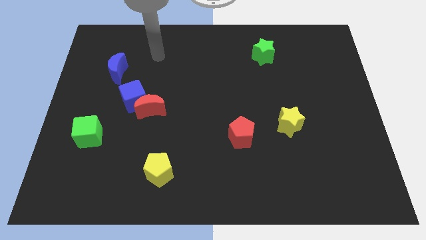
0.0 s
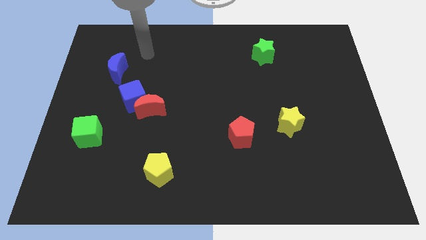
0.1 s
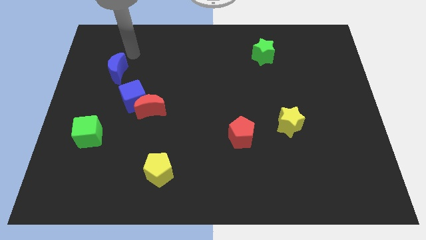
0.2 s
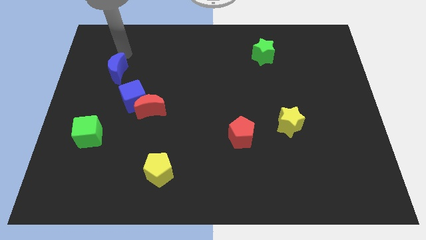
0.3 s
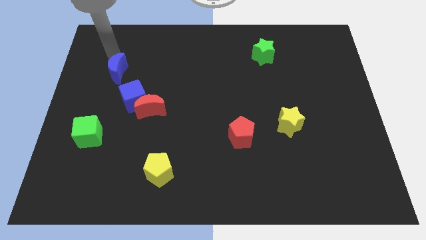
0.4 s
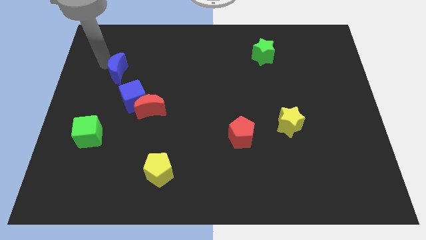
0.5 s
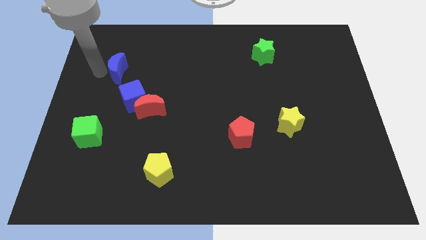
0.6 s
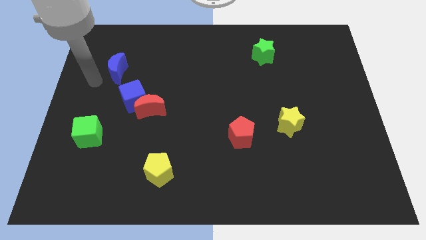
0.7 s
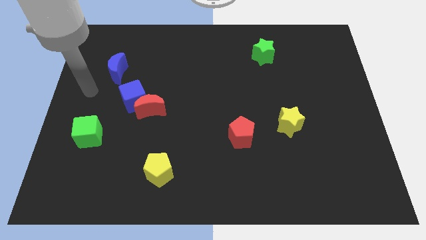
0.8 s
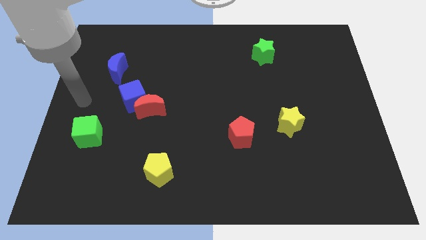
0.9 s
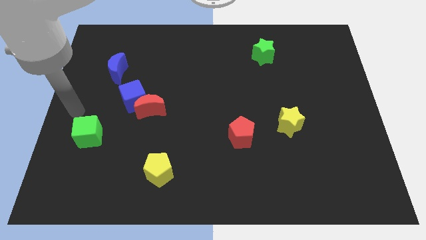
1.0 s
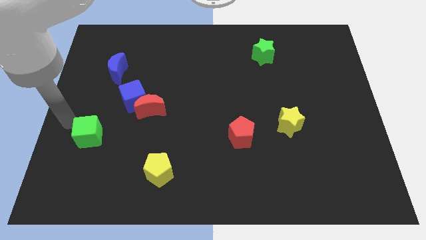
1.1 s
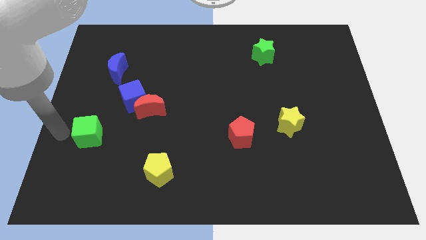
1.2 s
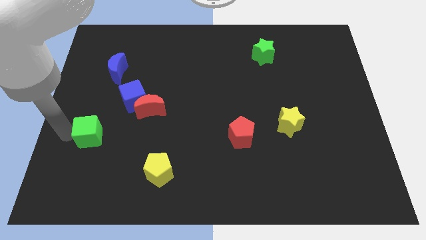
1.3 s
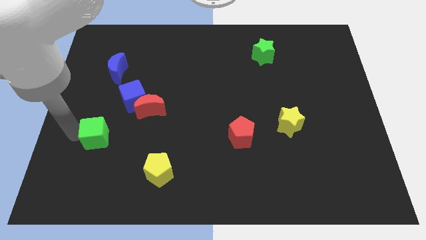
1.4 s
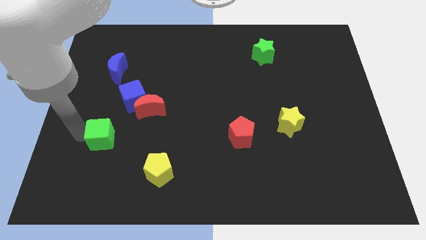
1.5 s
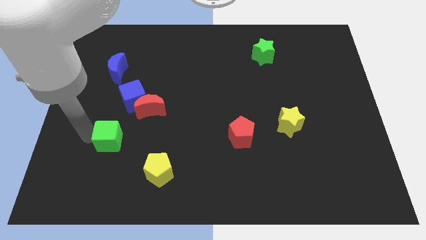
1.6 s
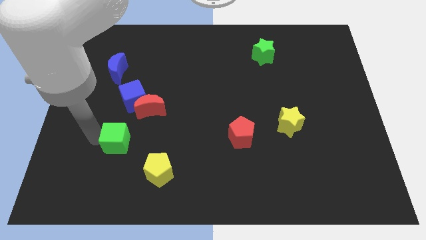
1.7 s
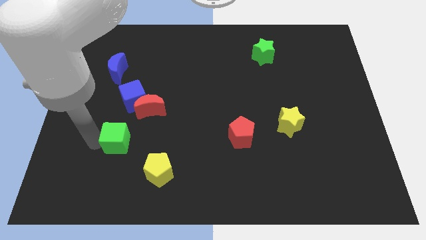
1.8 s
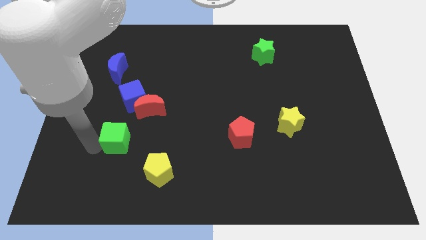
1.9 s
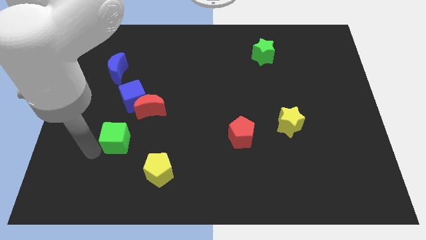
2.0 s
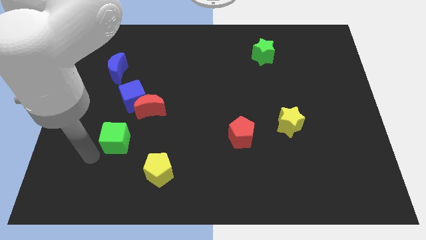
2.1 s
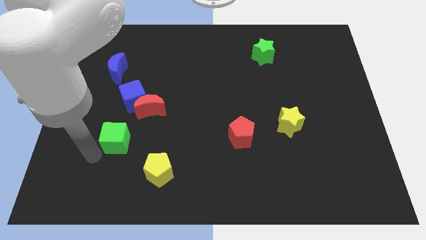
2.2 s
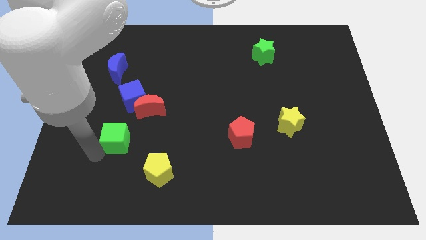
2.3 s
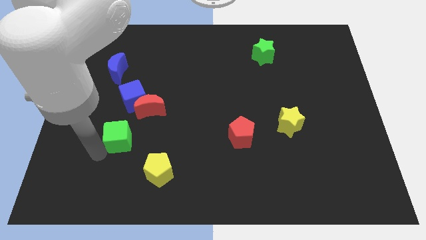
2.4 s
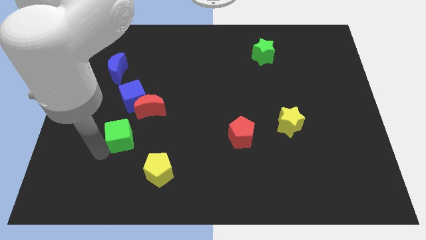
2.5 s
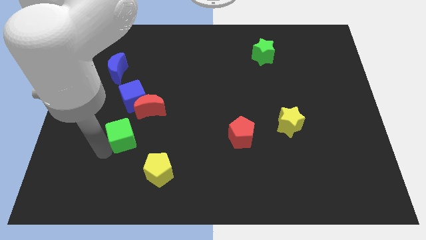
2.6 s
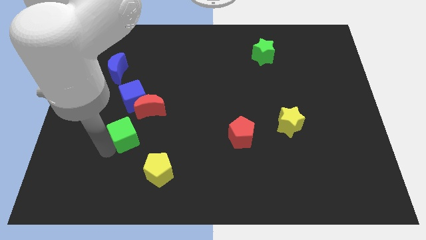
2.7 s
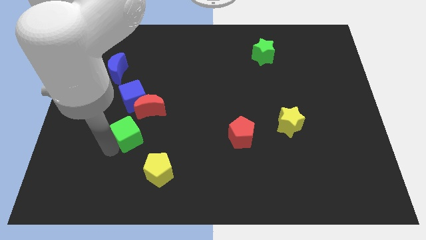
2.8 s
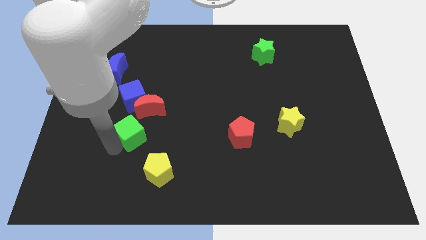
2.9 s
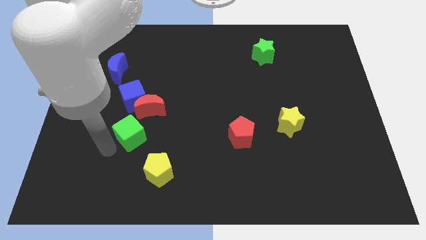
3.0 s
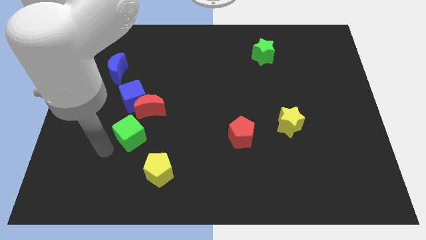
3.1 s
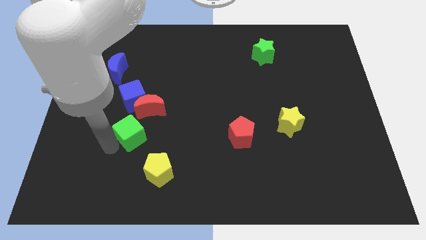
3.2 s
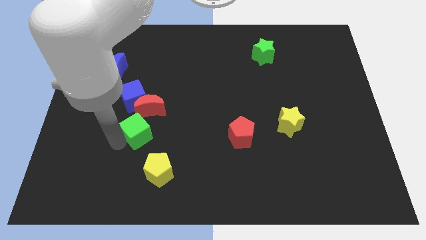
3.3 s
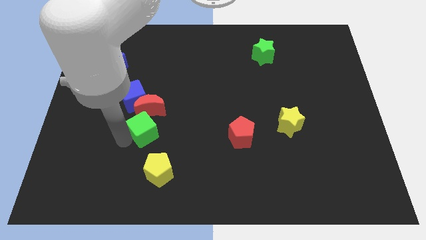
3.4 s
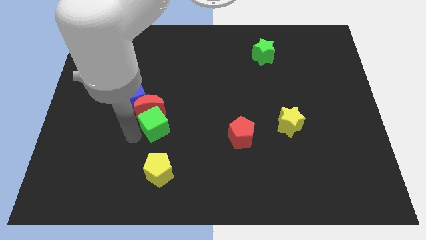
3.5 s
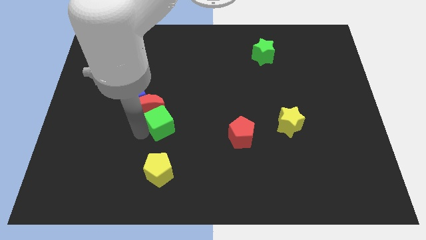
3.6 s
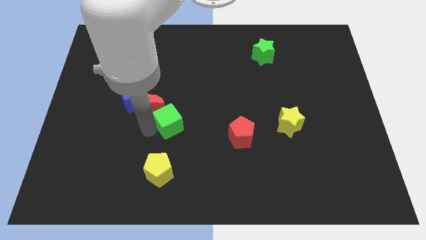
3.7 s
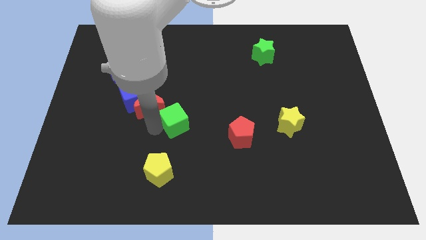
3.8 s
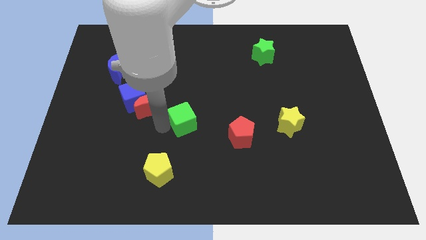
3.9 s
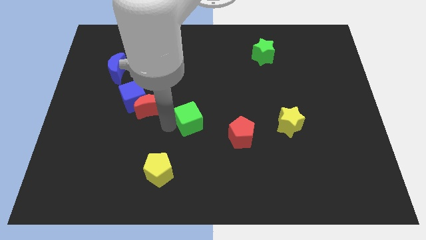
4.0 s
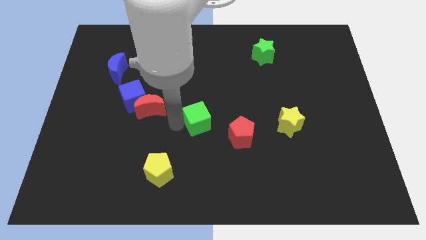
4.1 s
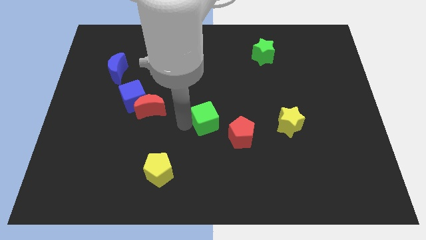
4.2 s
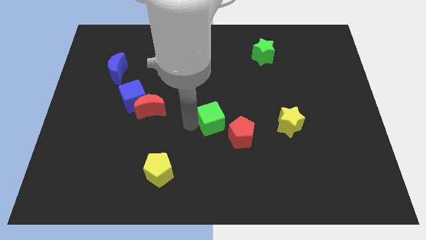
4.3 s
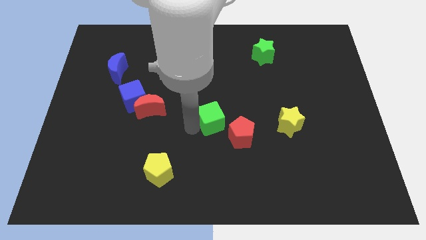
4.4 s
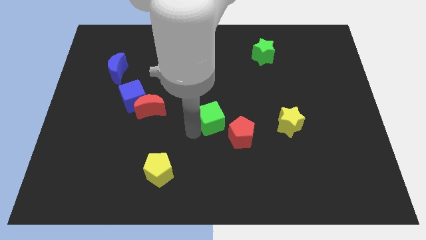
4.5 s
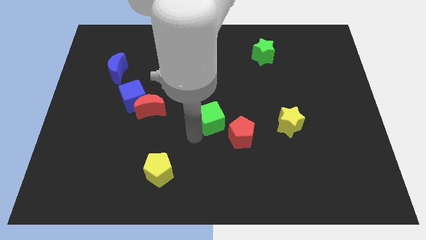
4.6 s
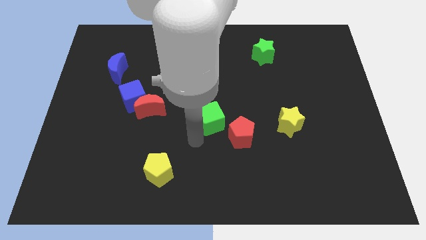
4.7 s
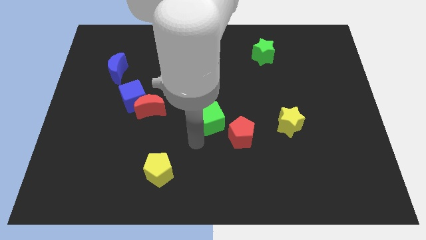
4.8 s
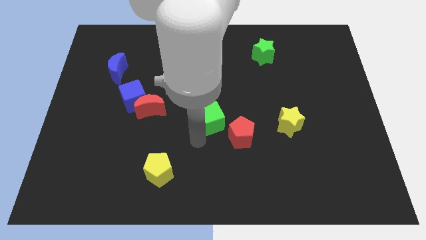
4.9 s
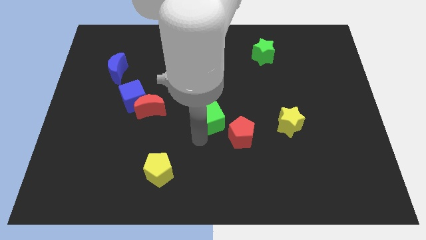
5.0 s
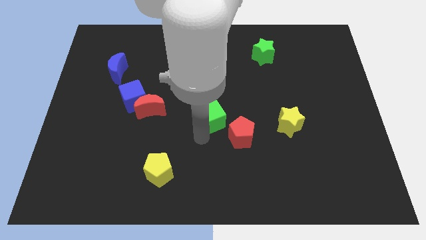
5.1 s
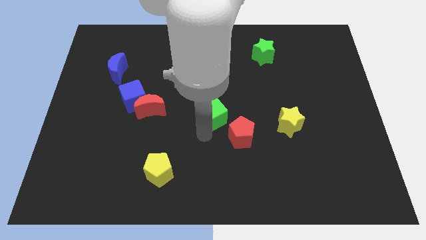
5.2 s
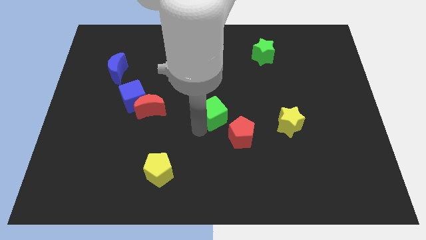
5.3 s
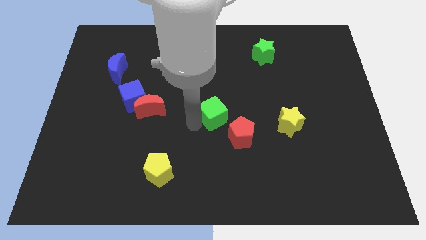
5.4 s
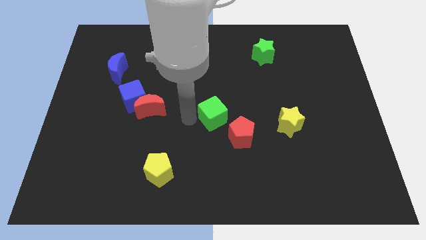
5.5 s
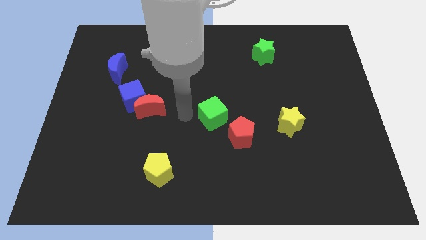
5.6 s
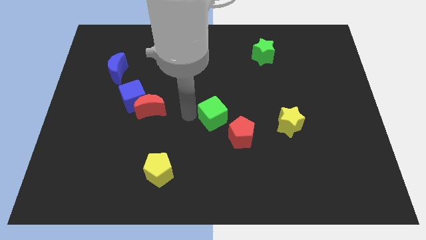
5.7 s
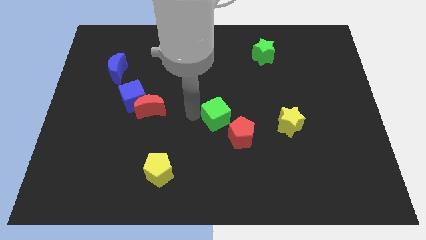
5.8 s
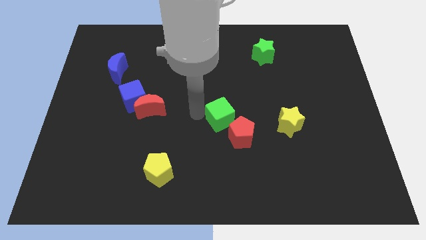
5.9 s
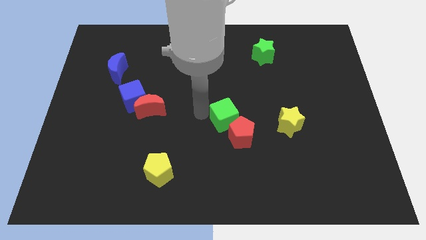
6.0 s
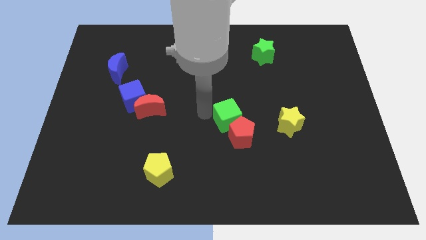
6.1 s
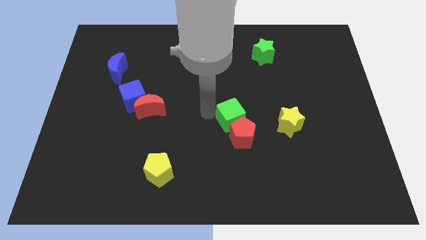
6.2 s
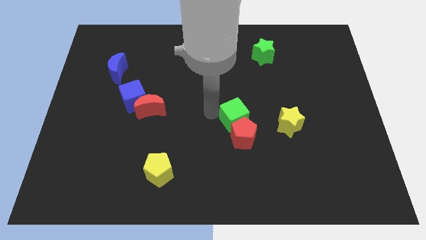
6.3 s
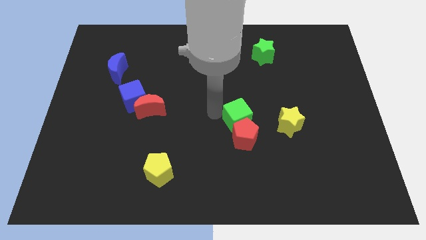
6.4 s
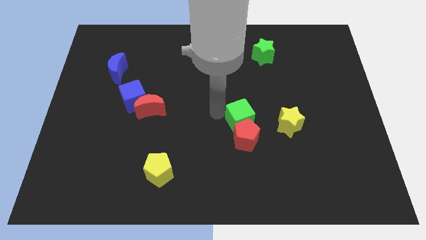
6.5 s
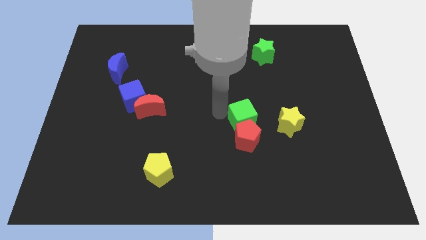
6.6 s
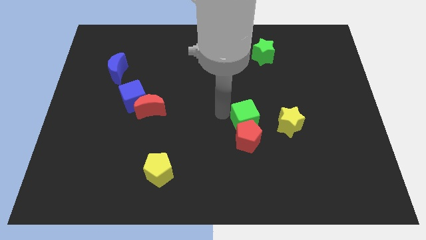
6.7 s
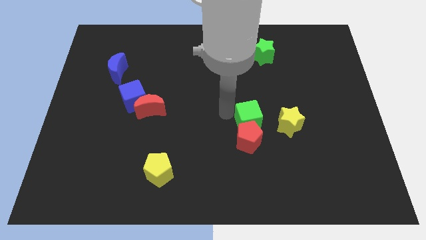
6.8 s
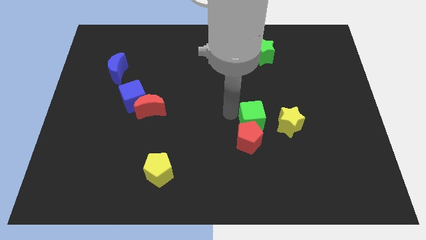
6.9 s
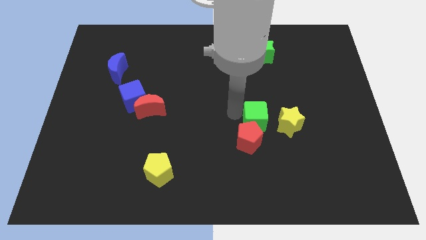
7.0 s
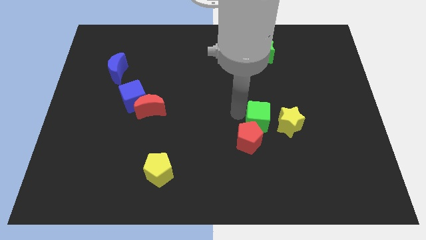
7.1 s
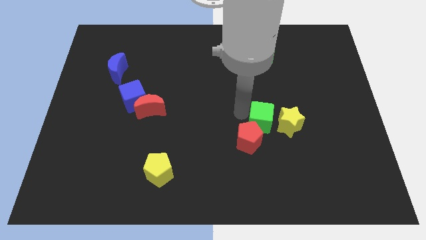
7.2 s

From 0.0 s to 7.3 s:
move the green cube to the yellow star

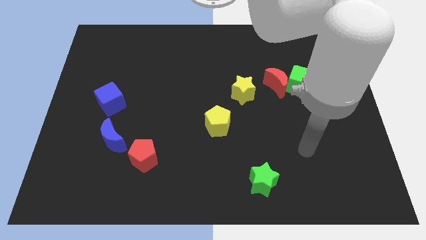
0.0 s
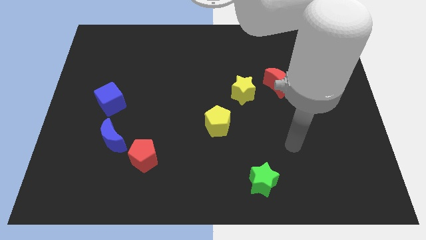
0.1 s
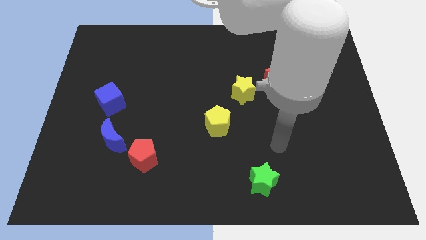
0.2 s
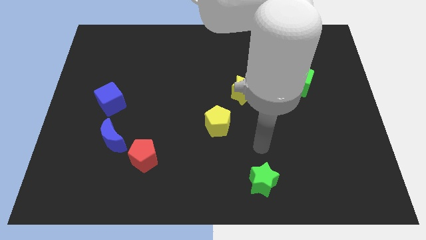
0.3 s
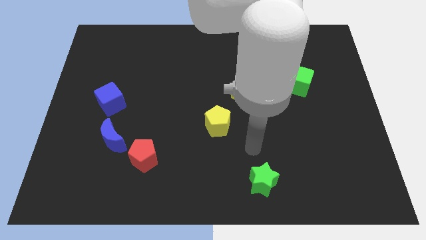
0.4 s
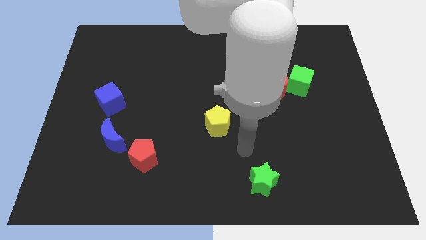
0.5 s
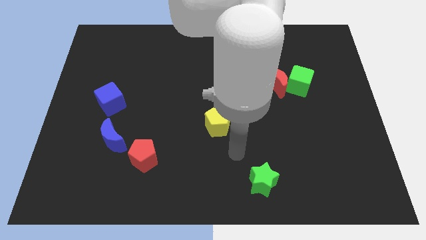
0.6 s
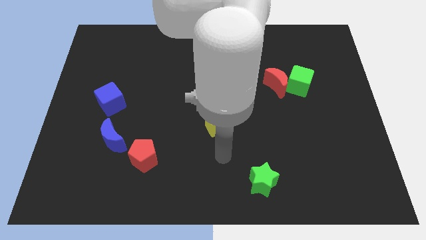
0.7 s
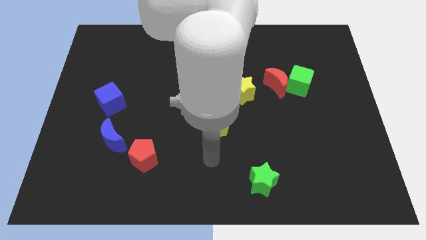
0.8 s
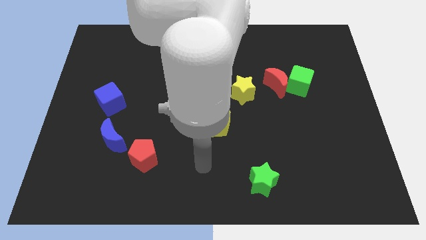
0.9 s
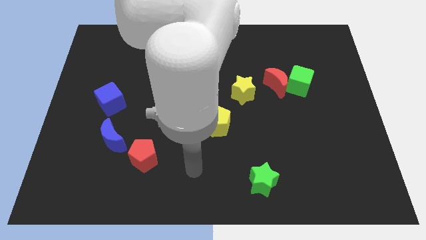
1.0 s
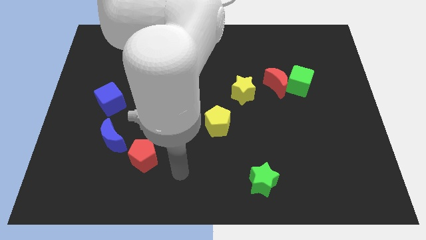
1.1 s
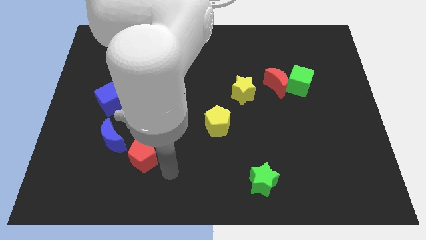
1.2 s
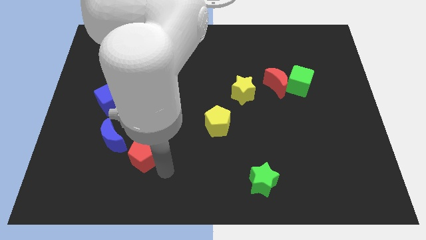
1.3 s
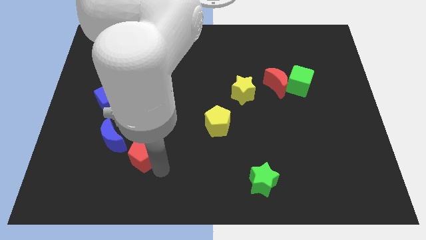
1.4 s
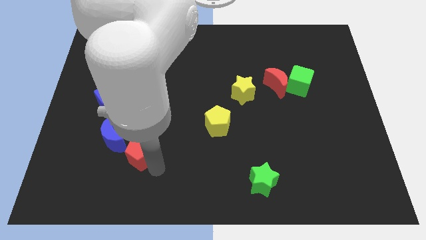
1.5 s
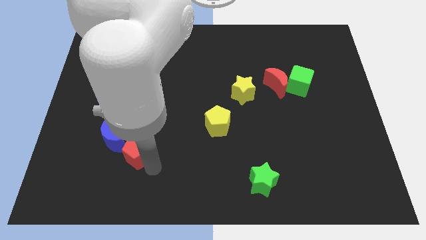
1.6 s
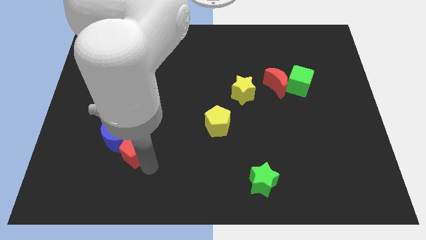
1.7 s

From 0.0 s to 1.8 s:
put the red pentagon to the blue moon
